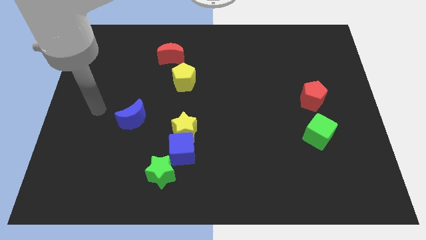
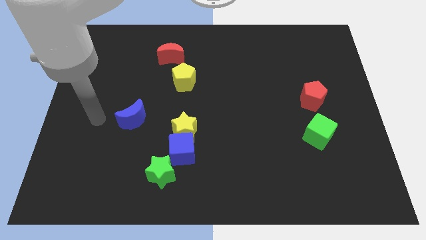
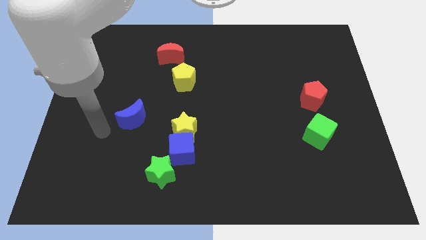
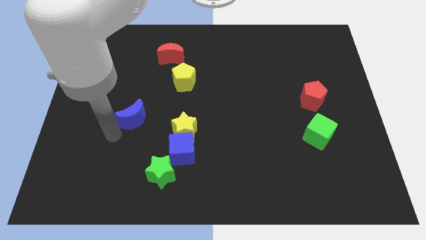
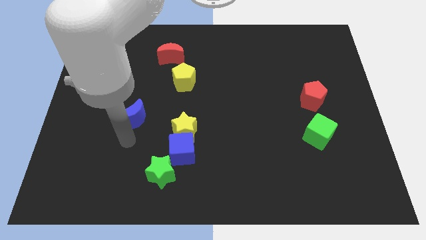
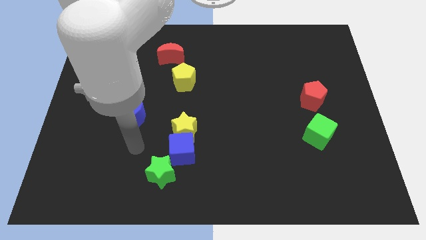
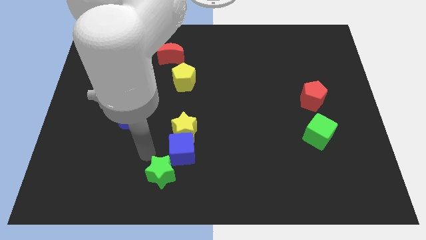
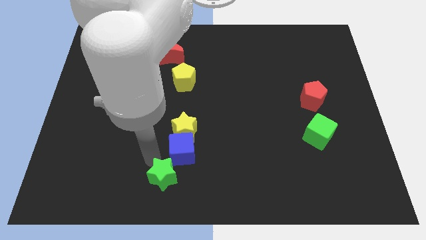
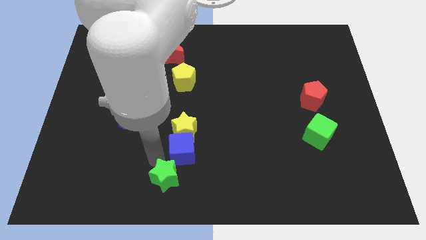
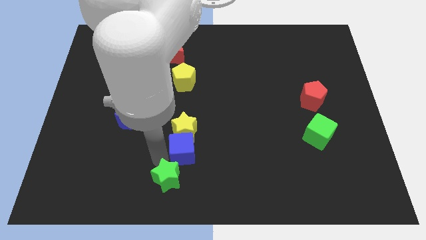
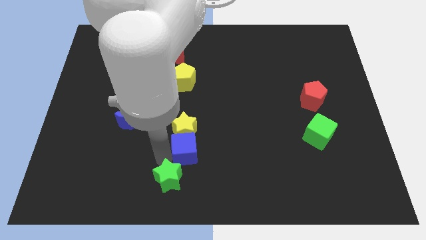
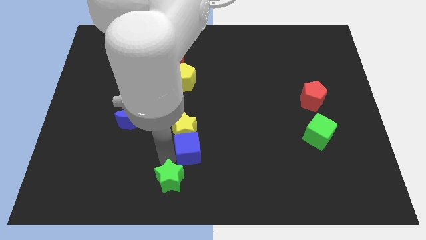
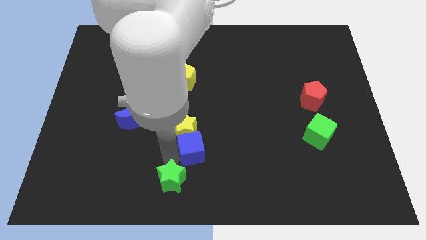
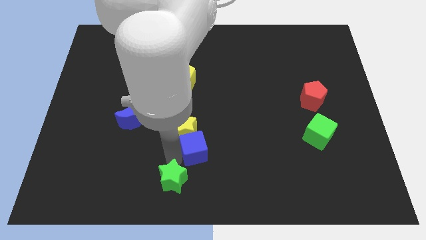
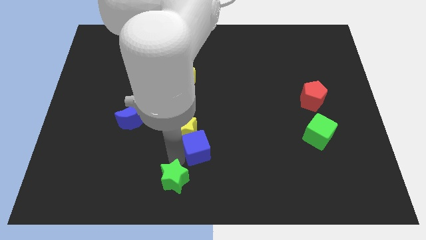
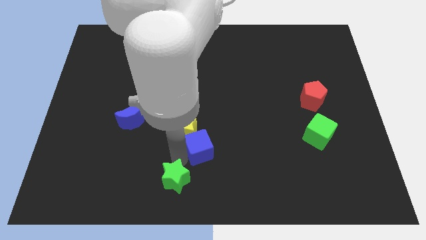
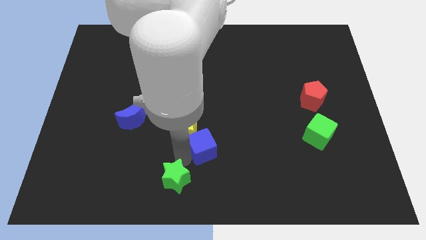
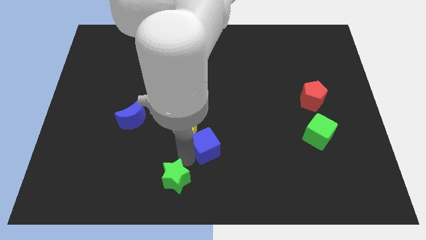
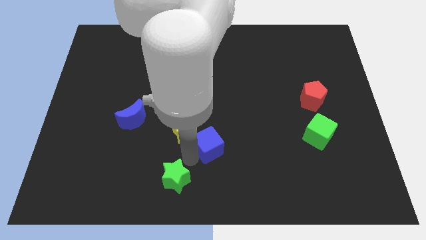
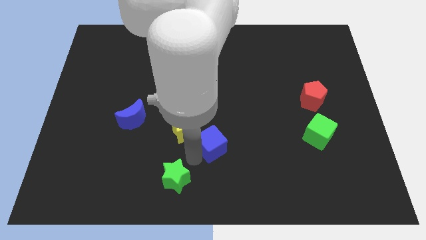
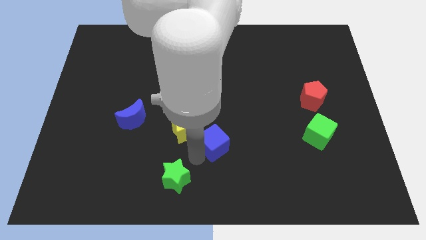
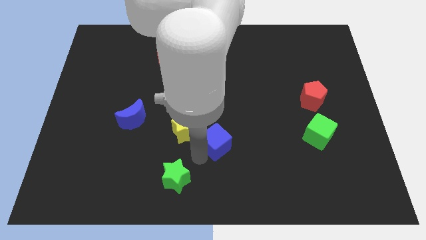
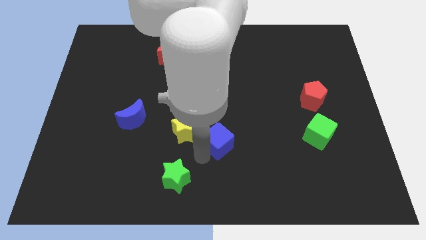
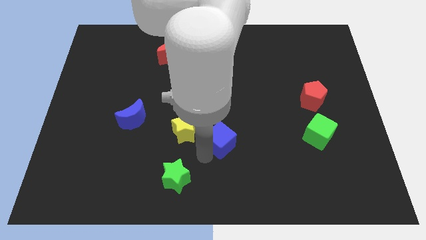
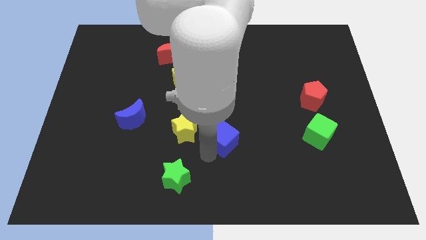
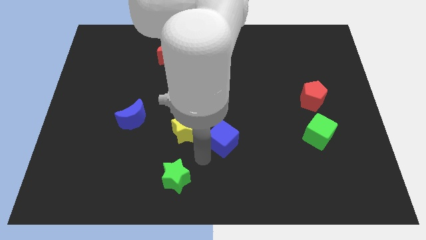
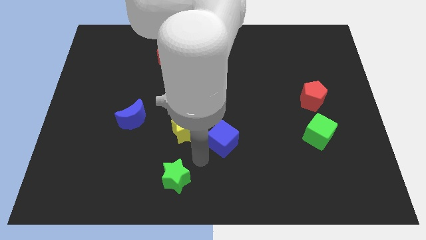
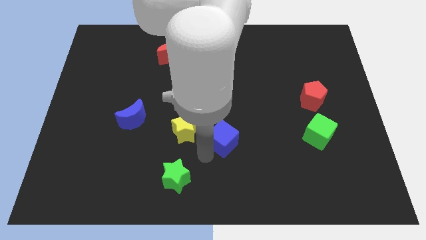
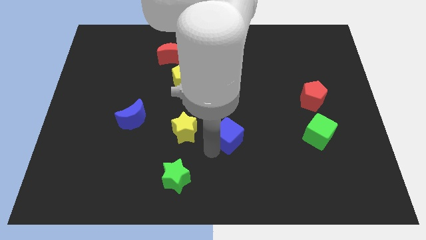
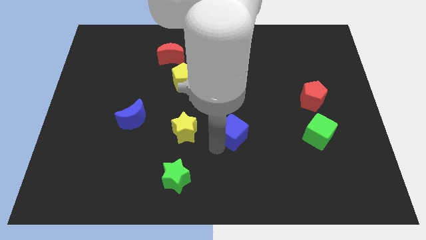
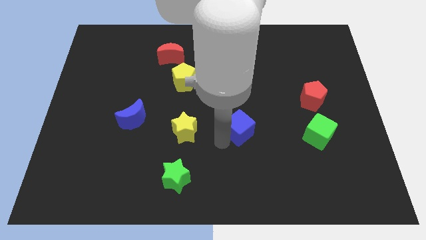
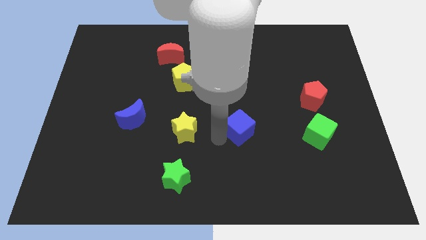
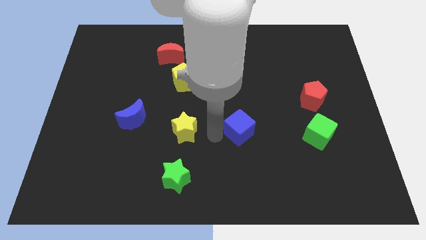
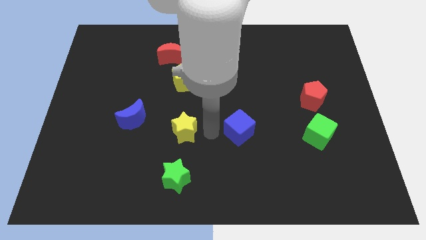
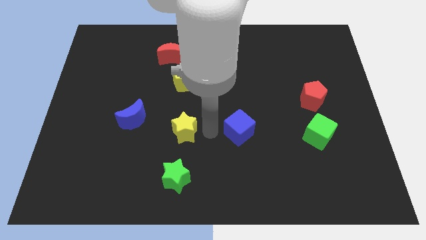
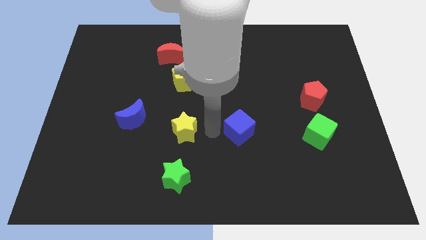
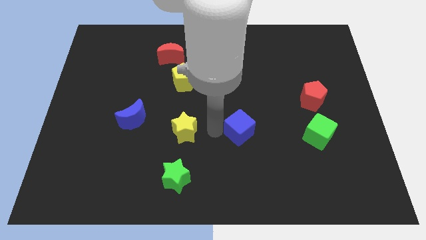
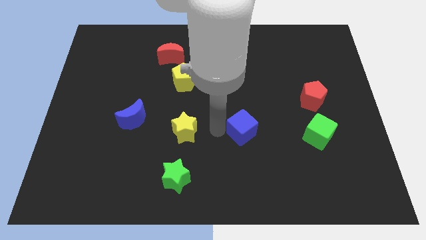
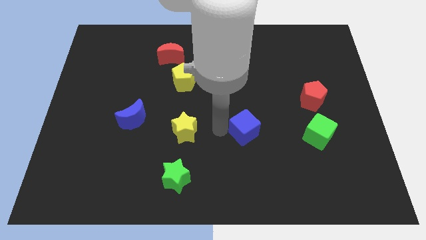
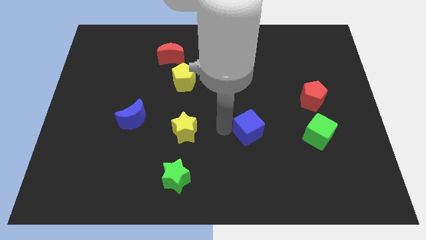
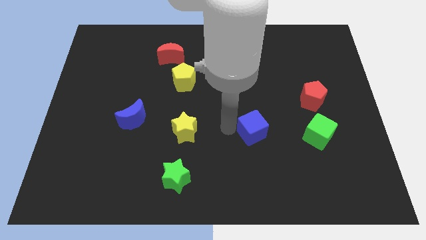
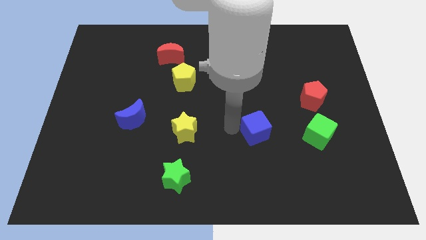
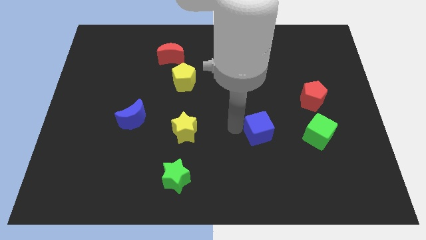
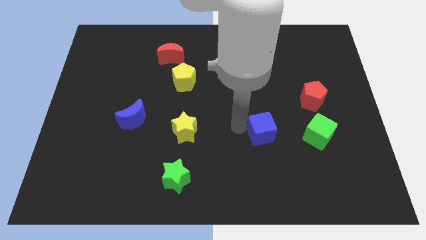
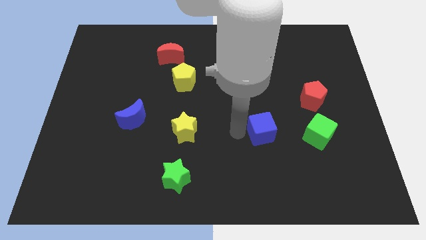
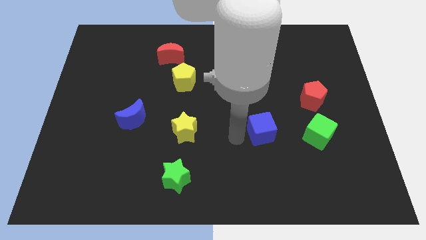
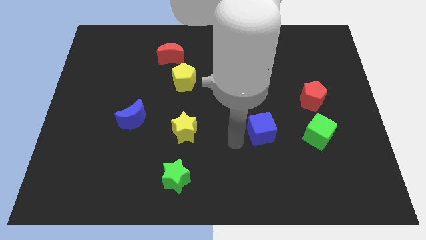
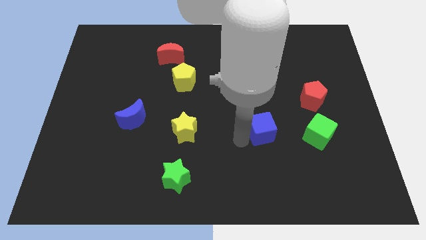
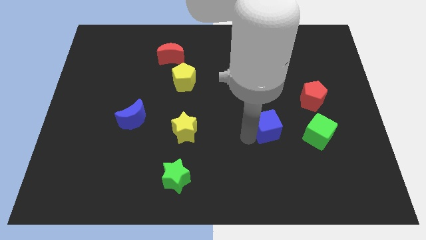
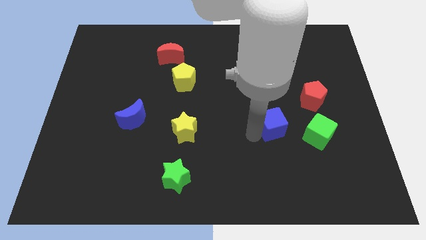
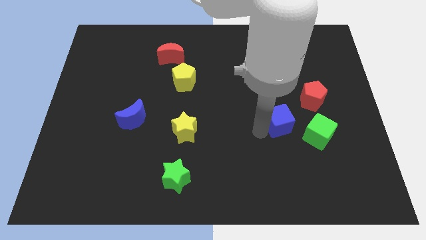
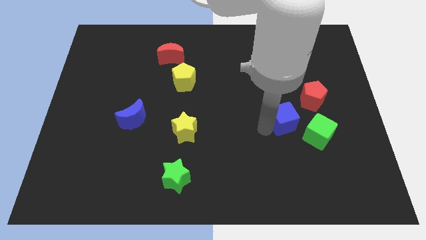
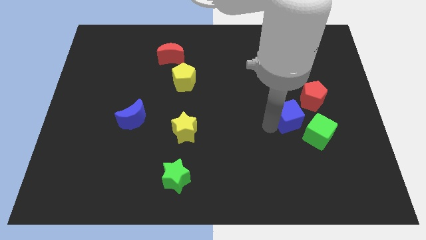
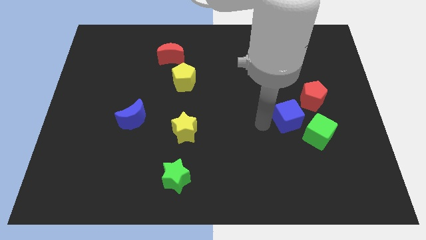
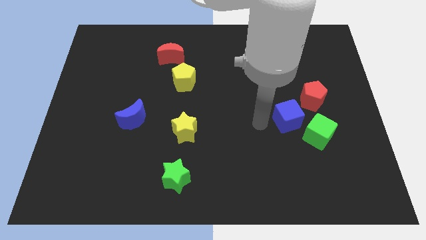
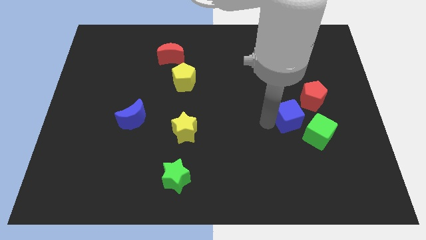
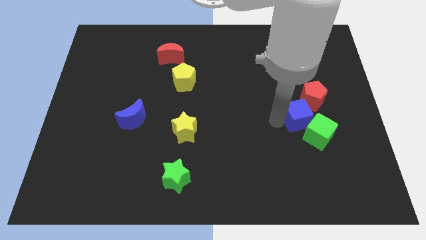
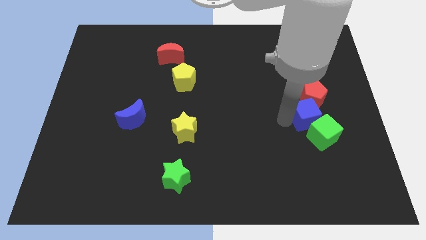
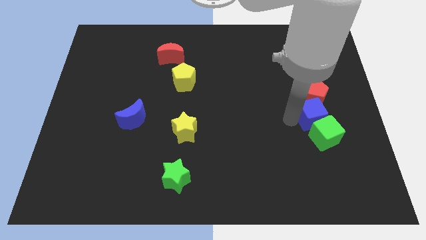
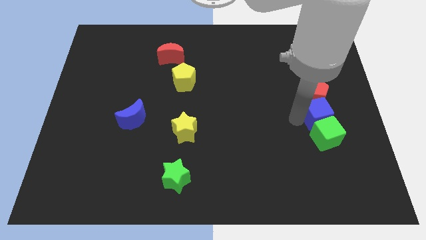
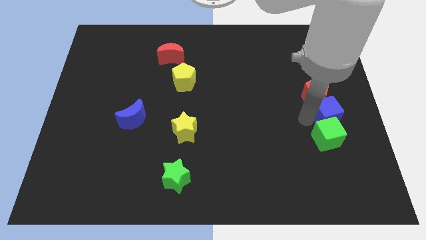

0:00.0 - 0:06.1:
slide the blue cube to the right side

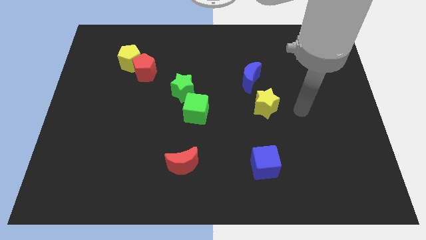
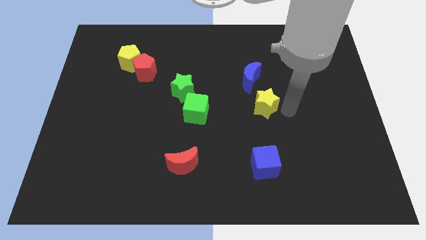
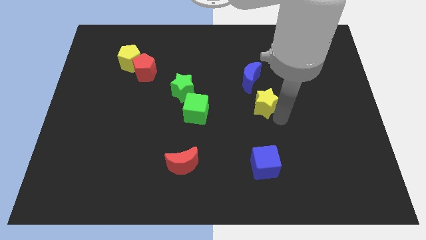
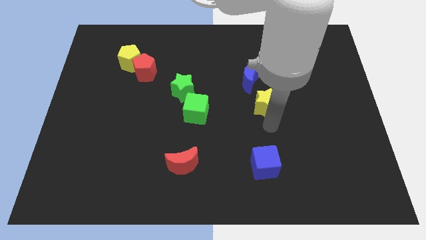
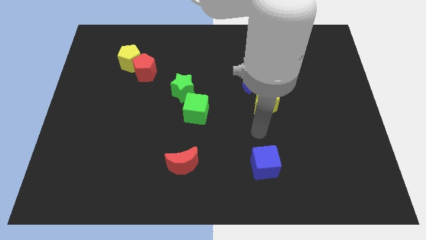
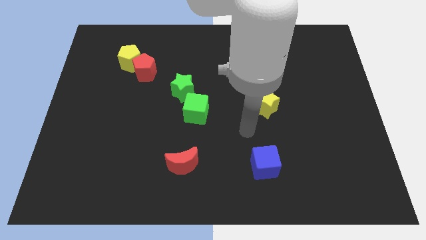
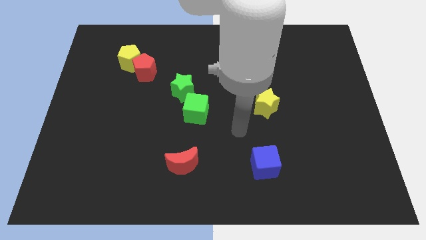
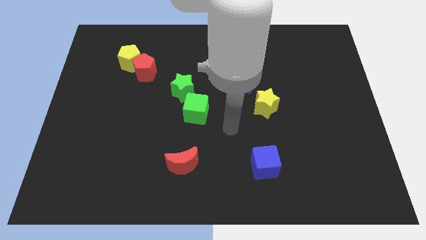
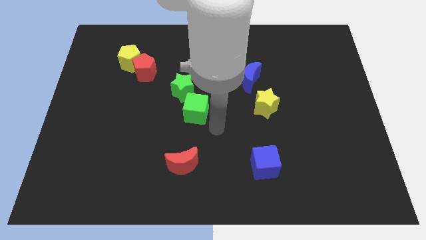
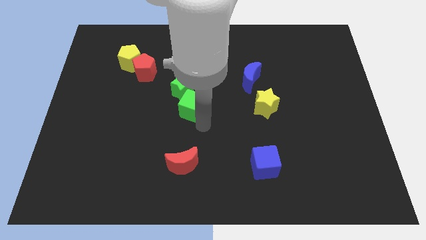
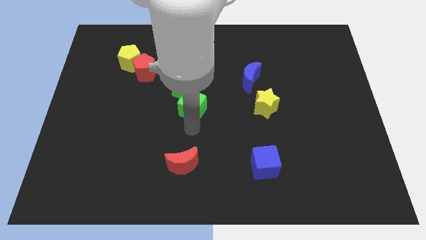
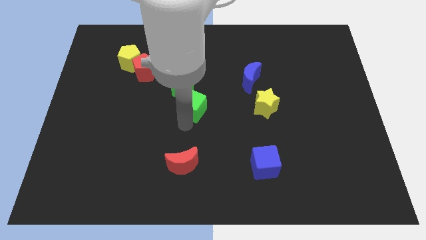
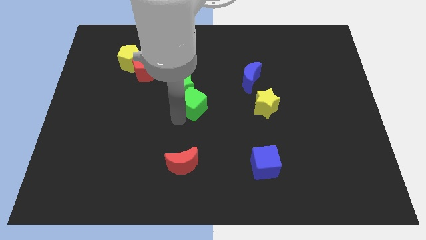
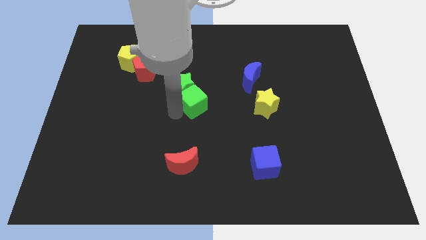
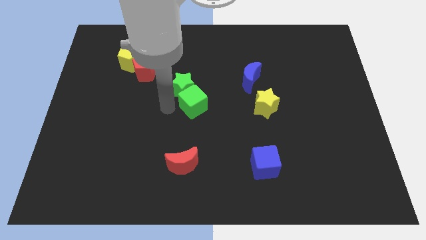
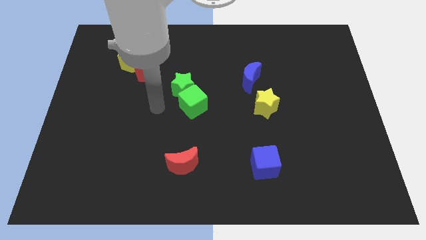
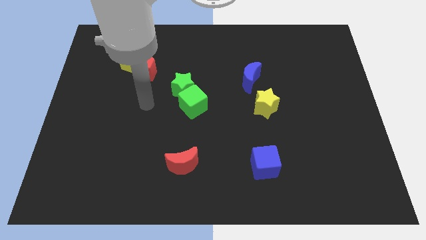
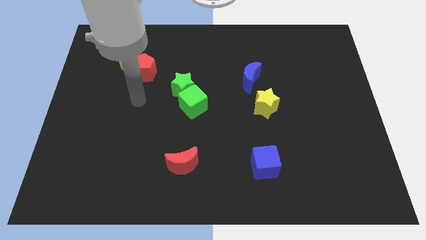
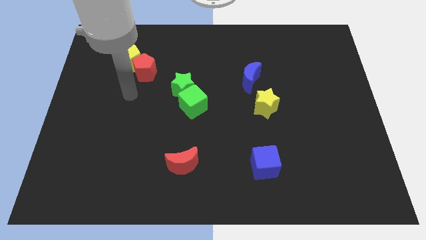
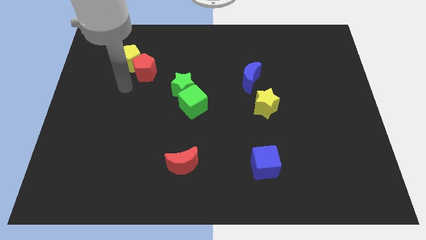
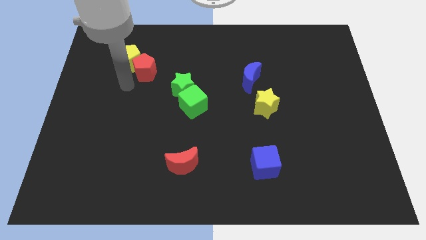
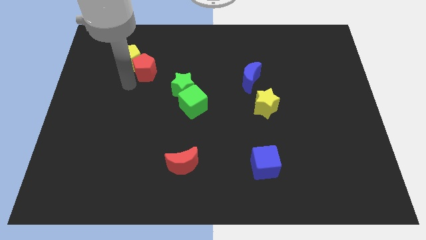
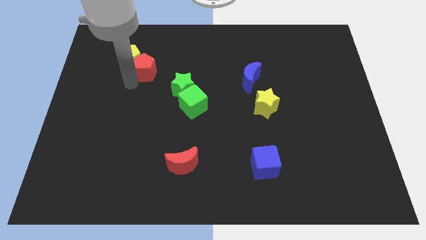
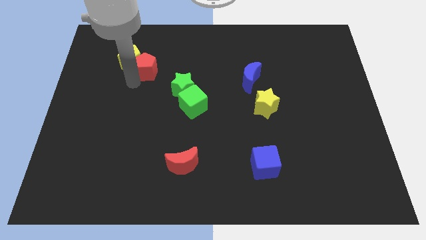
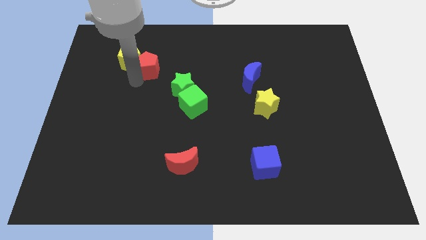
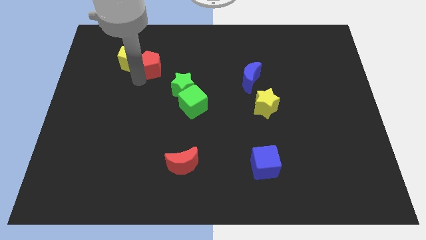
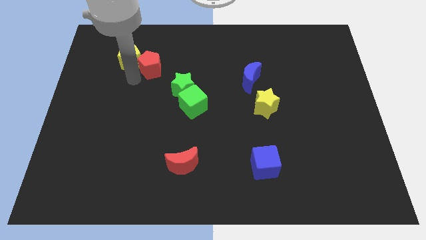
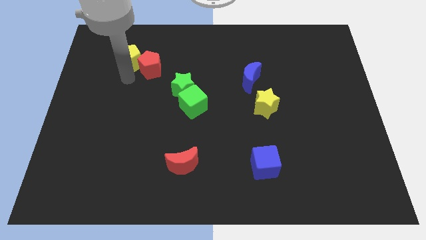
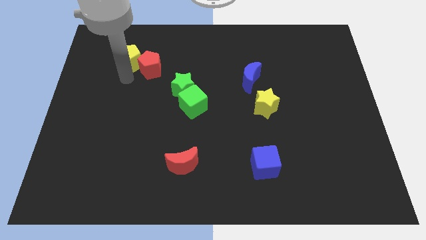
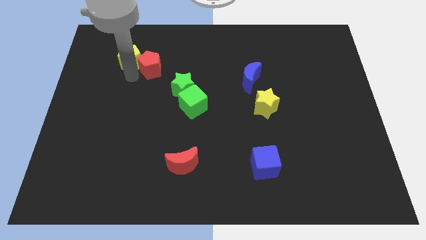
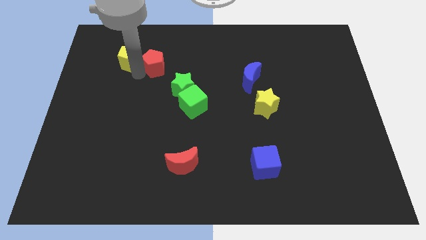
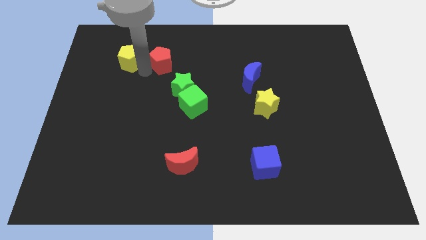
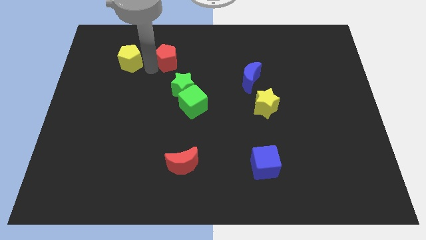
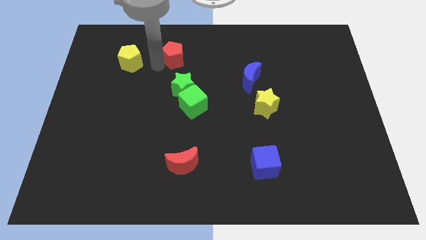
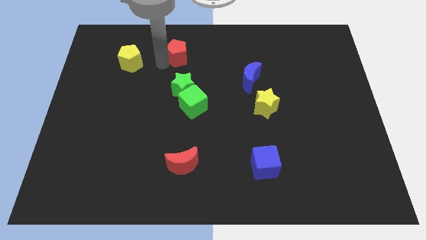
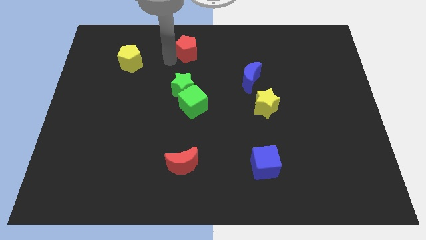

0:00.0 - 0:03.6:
put the red pentagon to the top side
